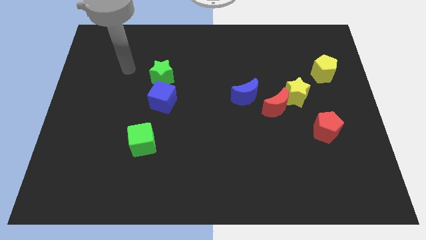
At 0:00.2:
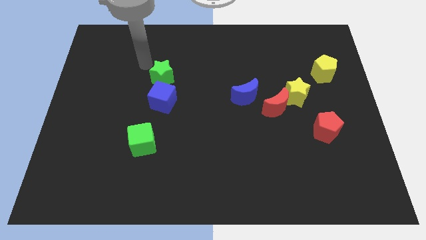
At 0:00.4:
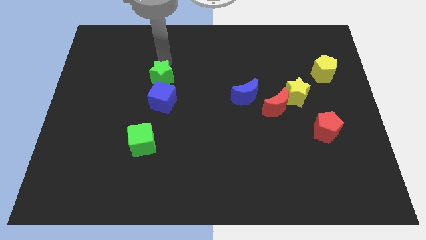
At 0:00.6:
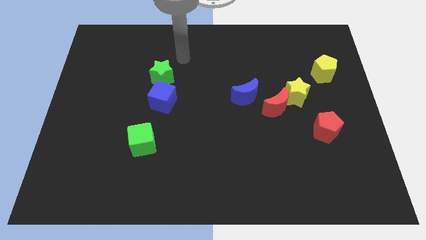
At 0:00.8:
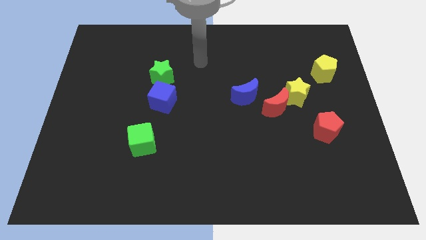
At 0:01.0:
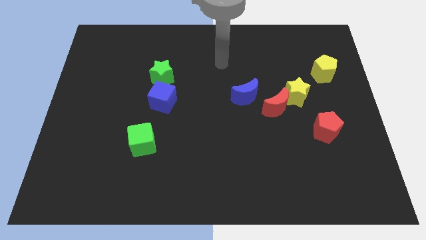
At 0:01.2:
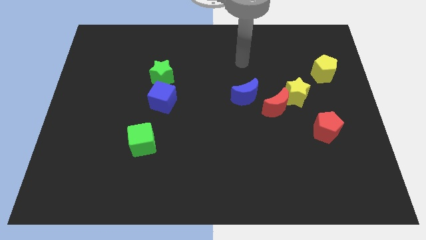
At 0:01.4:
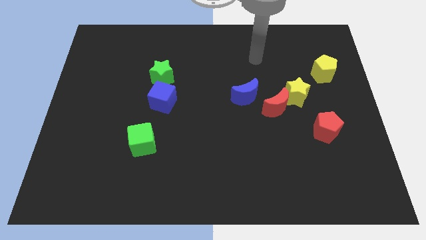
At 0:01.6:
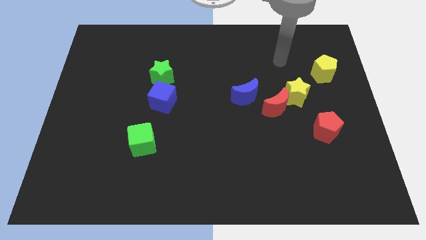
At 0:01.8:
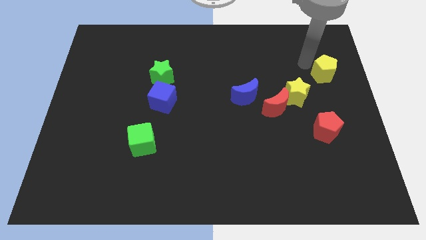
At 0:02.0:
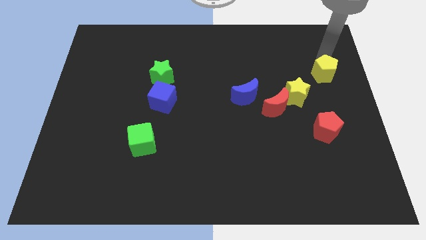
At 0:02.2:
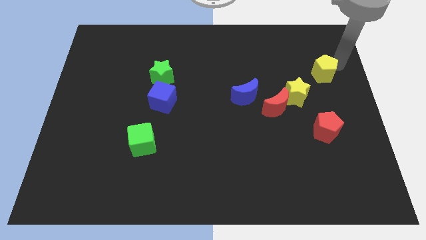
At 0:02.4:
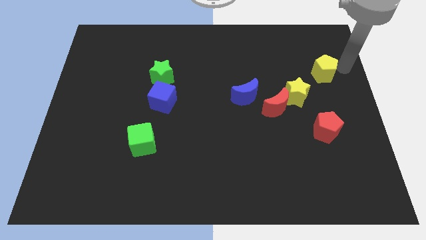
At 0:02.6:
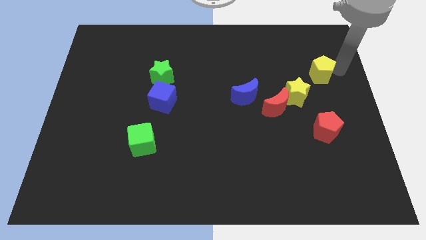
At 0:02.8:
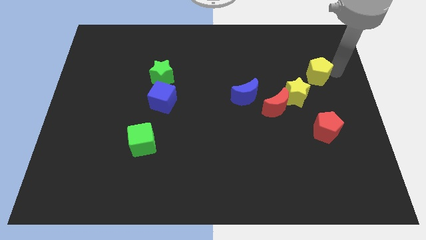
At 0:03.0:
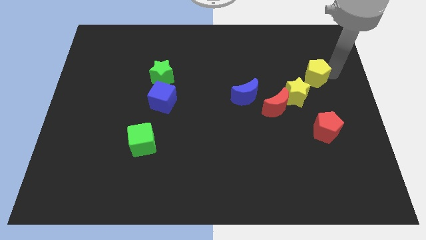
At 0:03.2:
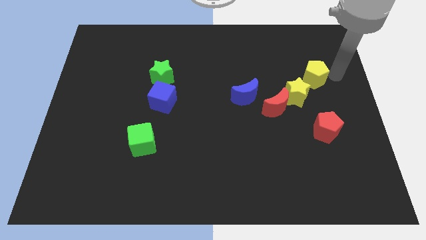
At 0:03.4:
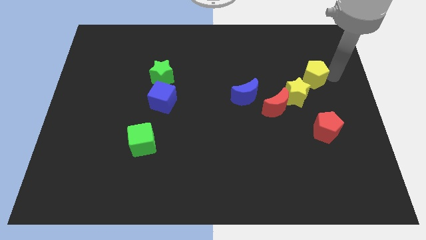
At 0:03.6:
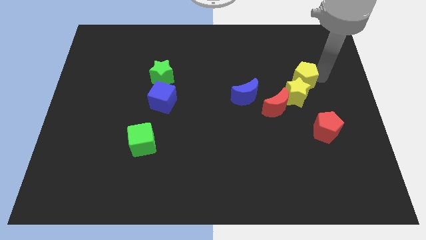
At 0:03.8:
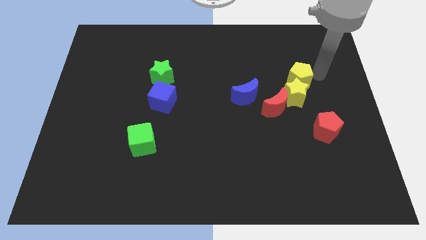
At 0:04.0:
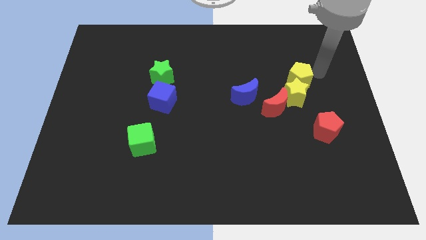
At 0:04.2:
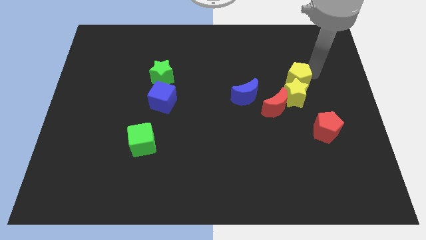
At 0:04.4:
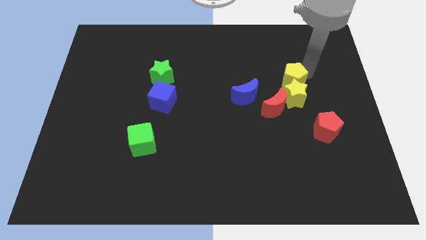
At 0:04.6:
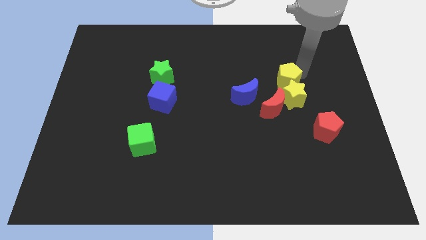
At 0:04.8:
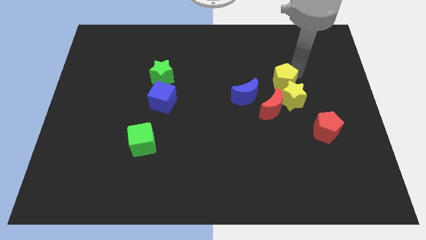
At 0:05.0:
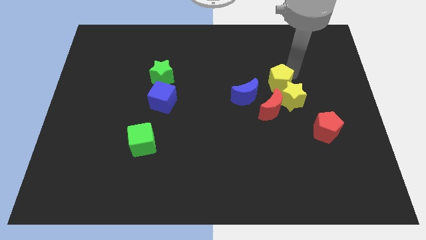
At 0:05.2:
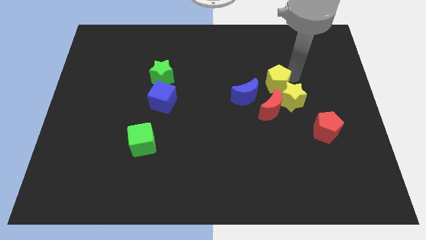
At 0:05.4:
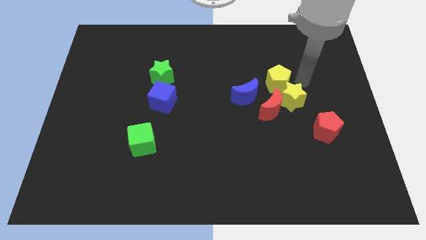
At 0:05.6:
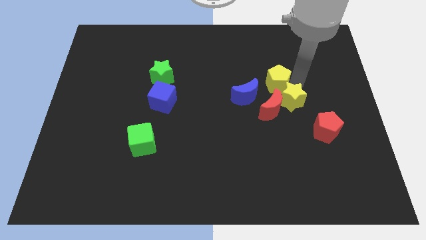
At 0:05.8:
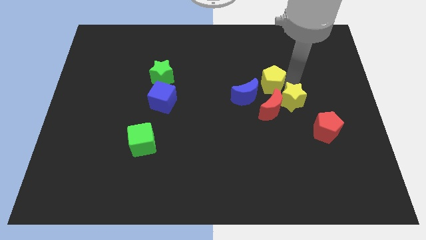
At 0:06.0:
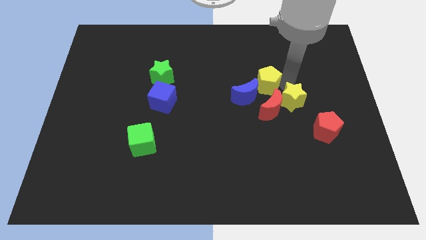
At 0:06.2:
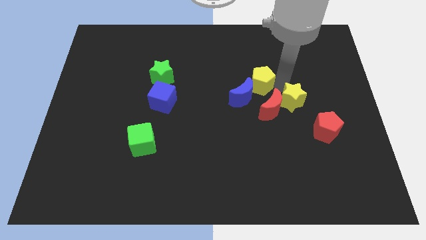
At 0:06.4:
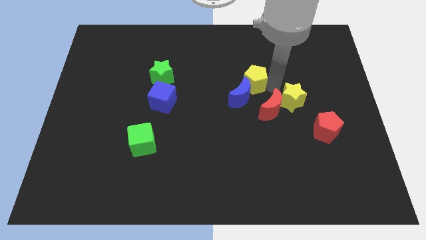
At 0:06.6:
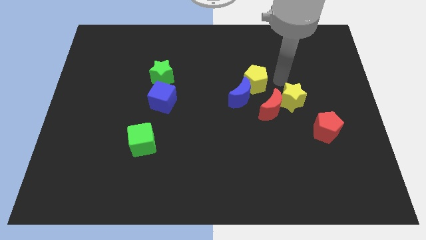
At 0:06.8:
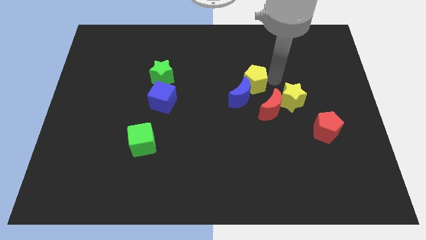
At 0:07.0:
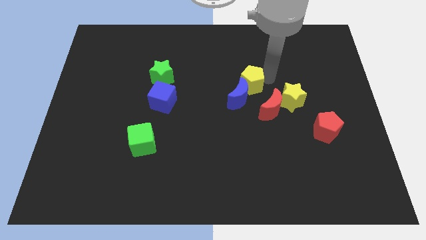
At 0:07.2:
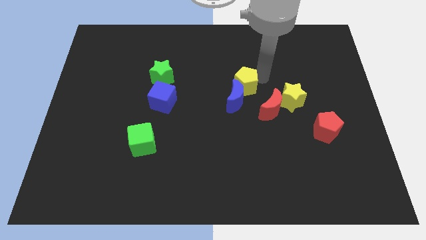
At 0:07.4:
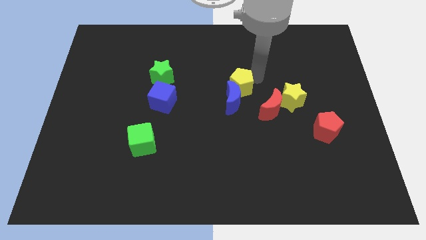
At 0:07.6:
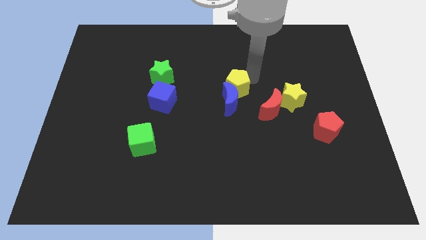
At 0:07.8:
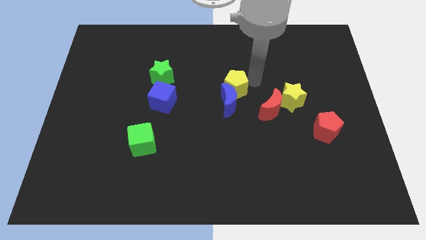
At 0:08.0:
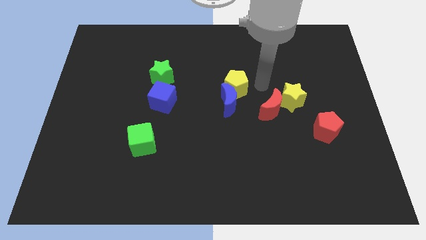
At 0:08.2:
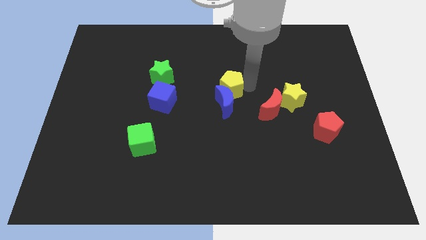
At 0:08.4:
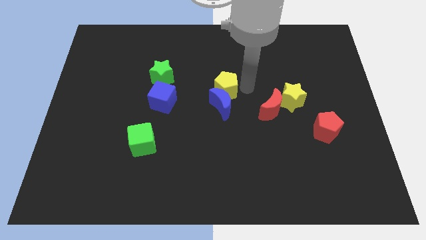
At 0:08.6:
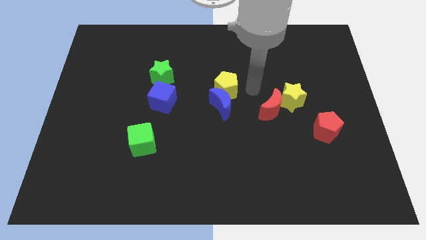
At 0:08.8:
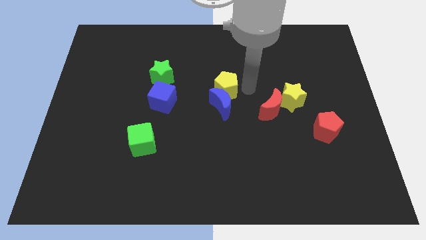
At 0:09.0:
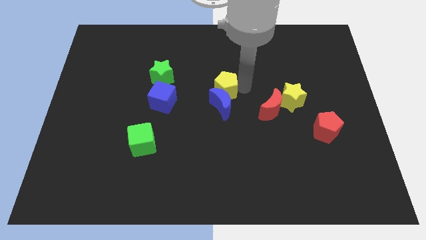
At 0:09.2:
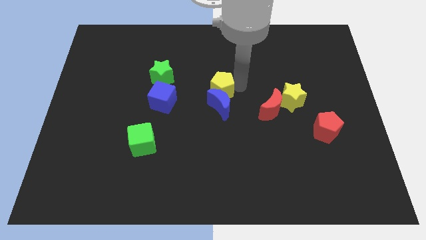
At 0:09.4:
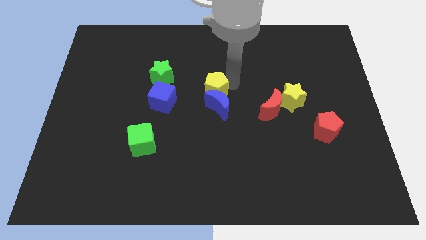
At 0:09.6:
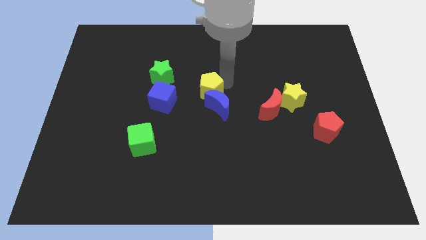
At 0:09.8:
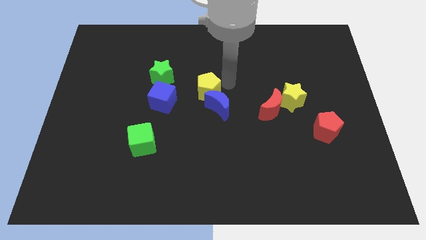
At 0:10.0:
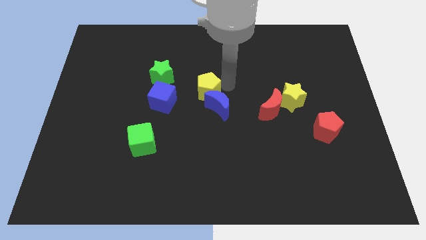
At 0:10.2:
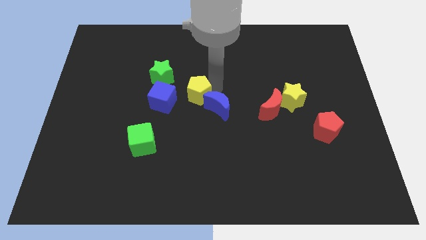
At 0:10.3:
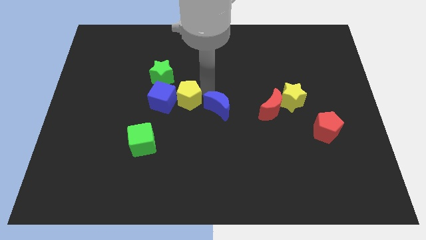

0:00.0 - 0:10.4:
move the yellow pentagon close to the blue cube

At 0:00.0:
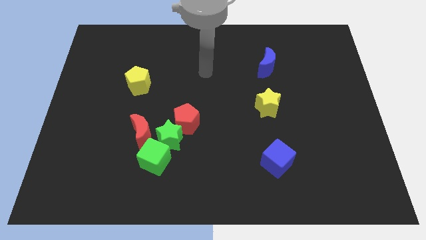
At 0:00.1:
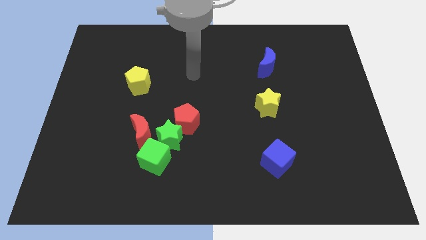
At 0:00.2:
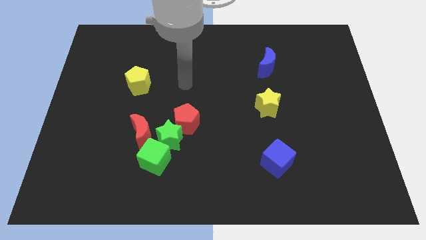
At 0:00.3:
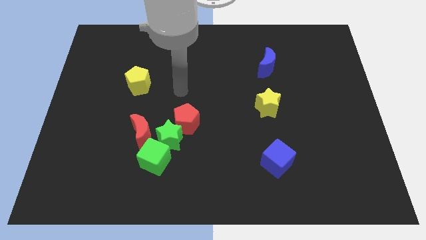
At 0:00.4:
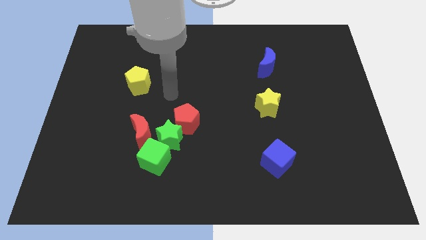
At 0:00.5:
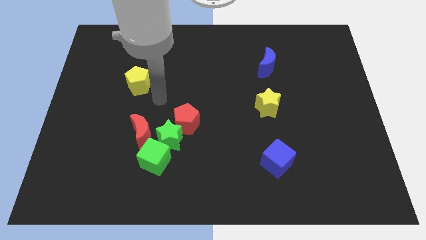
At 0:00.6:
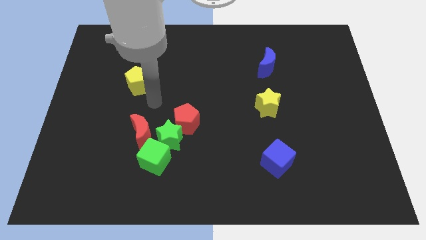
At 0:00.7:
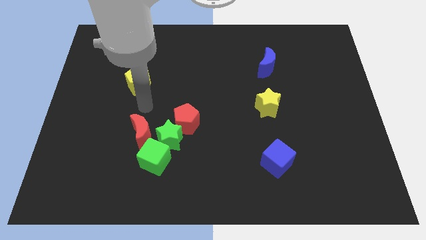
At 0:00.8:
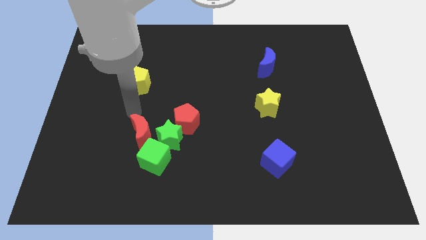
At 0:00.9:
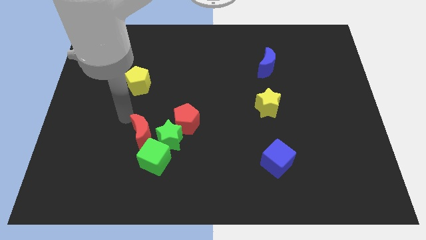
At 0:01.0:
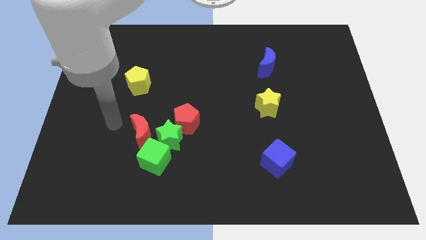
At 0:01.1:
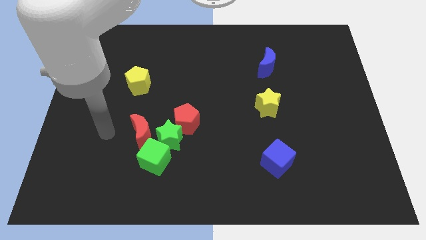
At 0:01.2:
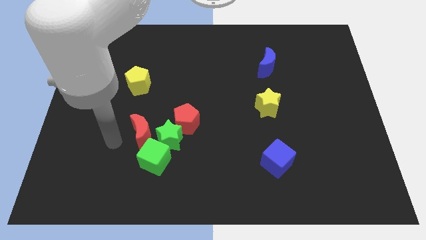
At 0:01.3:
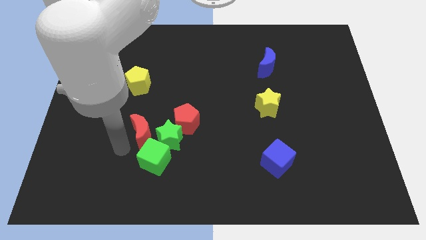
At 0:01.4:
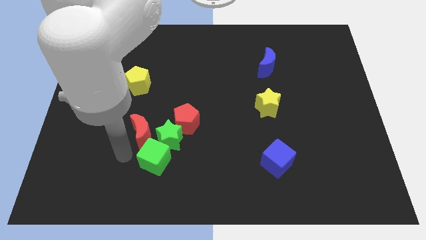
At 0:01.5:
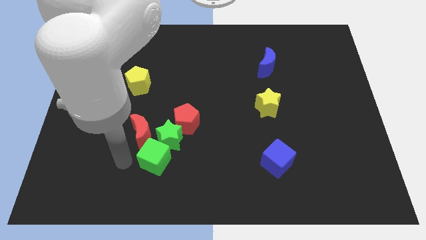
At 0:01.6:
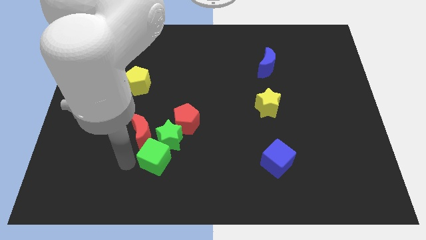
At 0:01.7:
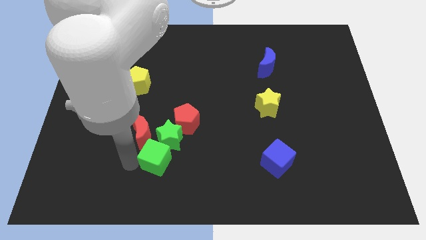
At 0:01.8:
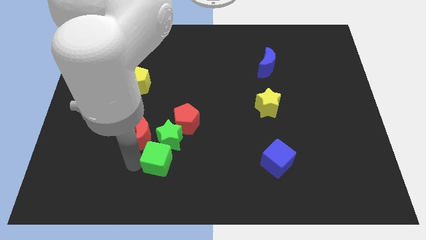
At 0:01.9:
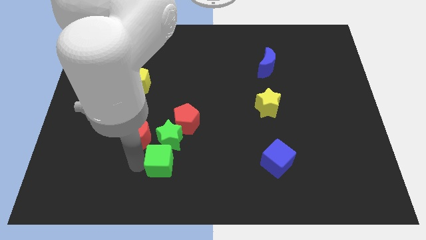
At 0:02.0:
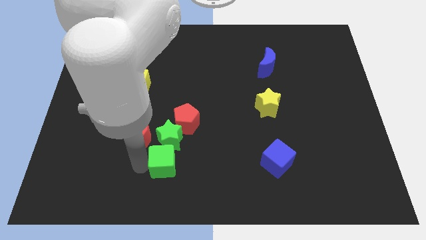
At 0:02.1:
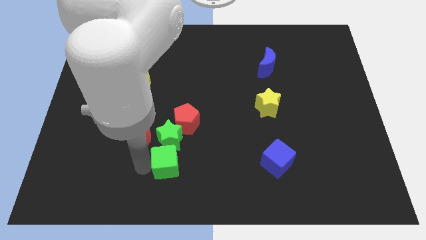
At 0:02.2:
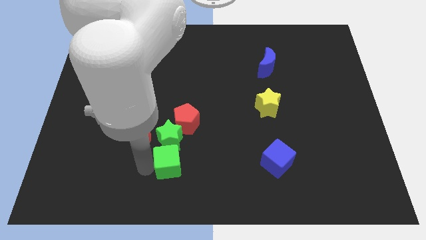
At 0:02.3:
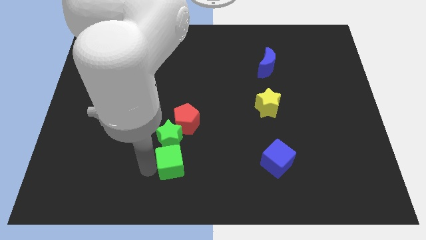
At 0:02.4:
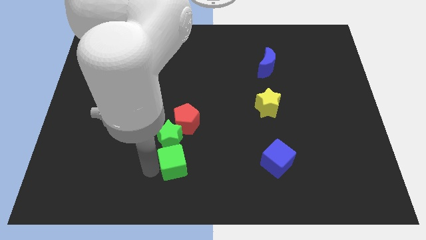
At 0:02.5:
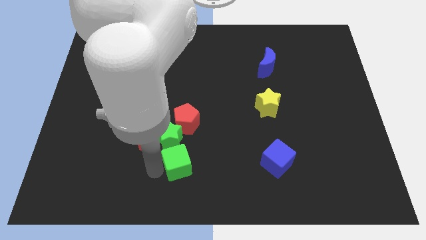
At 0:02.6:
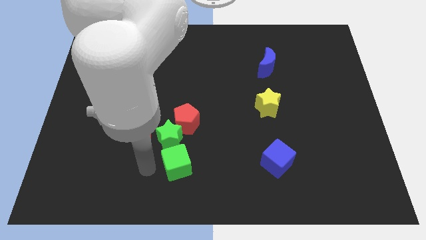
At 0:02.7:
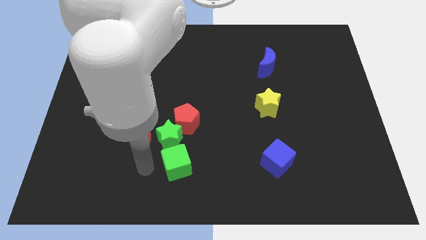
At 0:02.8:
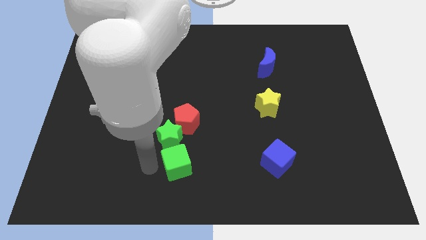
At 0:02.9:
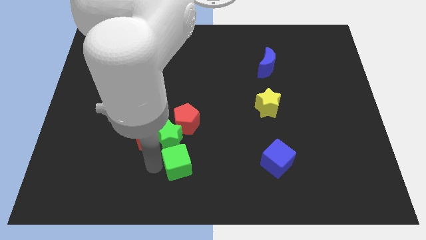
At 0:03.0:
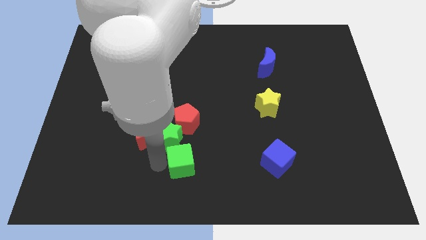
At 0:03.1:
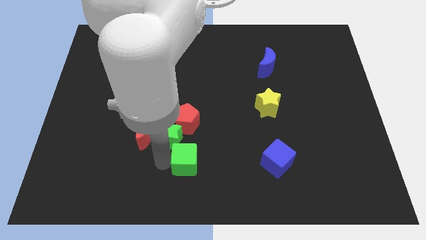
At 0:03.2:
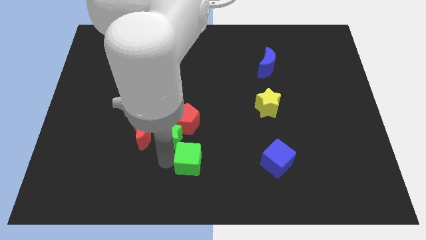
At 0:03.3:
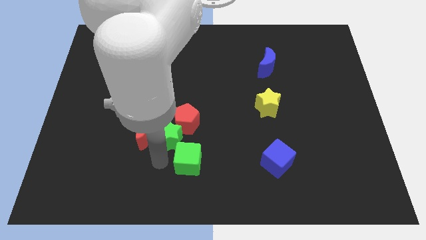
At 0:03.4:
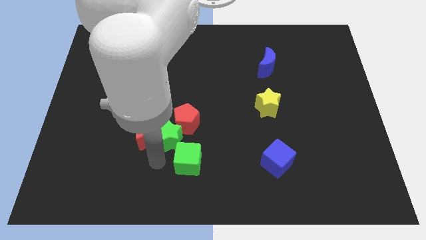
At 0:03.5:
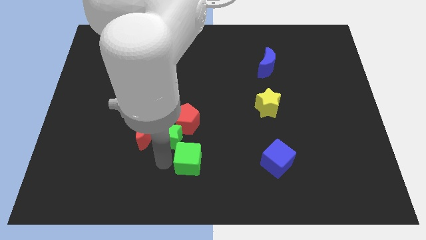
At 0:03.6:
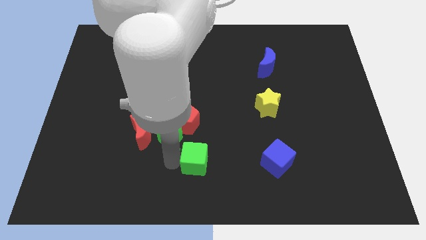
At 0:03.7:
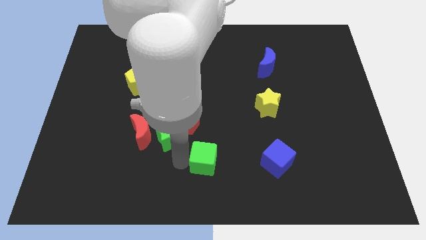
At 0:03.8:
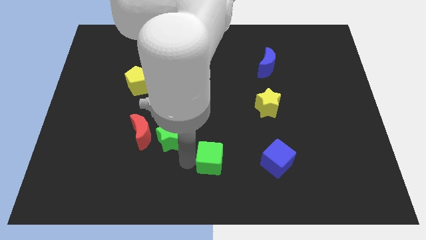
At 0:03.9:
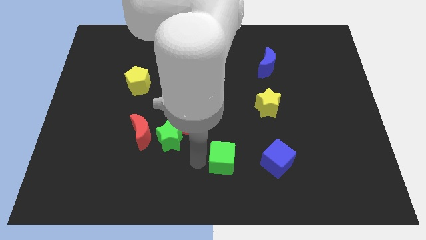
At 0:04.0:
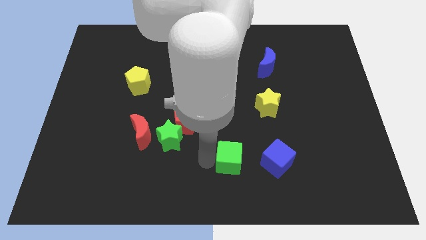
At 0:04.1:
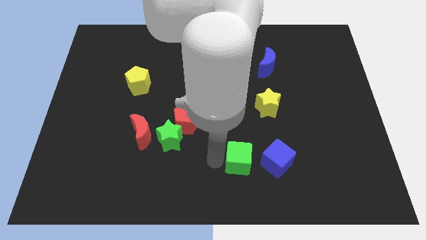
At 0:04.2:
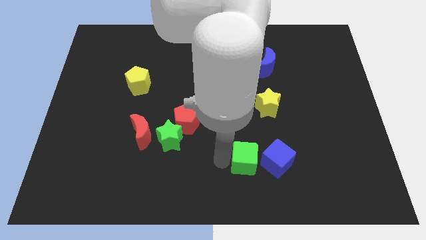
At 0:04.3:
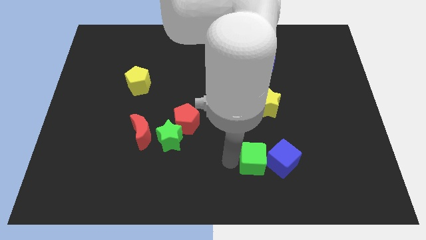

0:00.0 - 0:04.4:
move the green cube close to the blue cube
